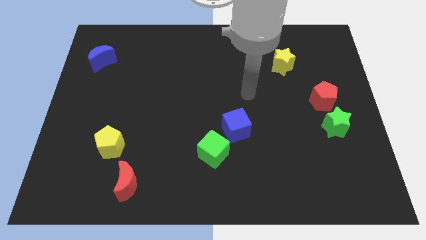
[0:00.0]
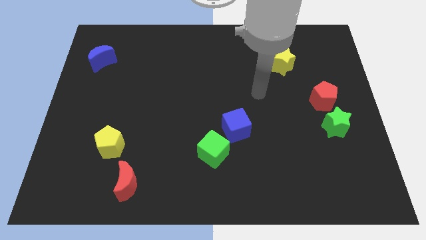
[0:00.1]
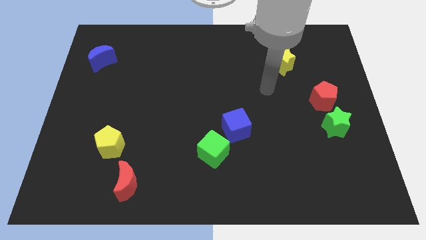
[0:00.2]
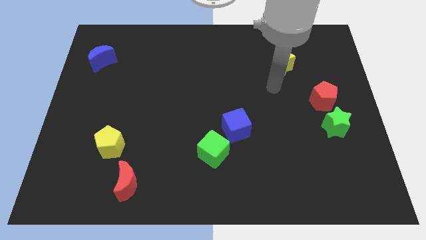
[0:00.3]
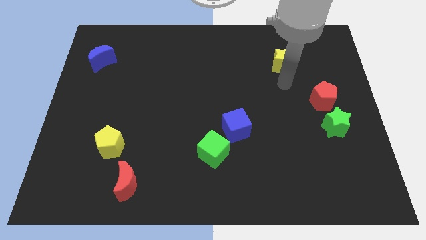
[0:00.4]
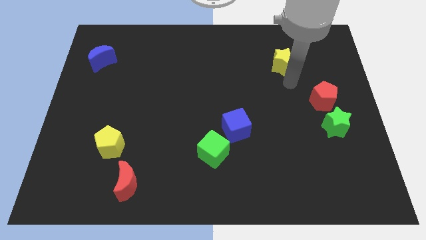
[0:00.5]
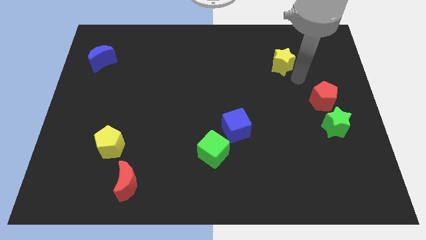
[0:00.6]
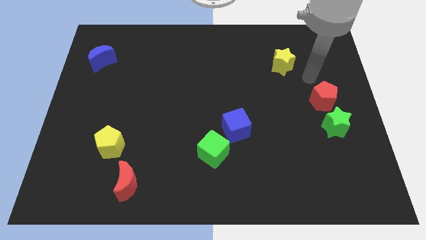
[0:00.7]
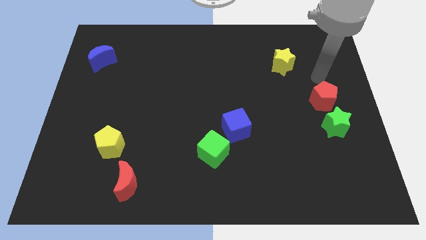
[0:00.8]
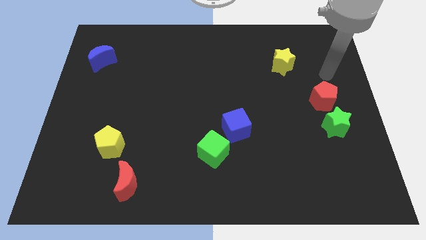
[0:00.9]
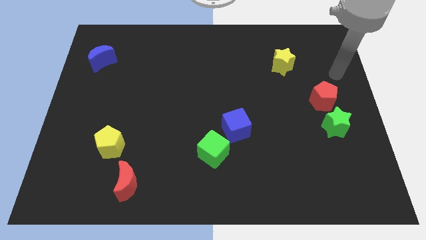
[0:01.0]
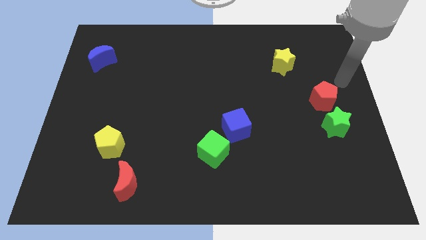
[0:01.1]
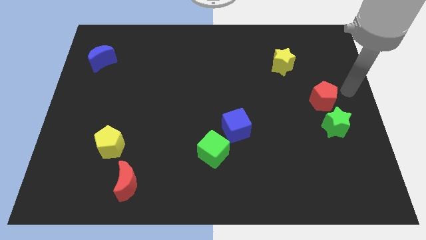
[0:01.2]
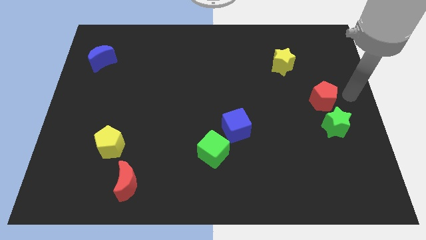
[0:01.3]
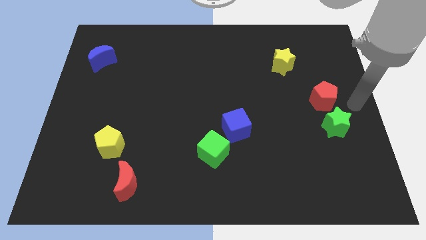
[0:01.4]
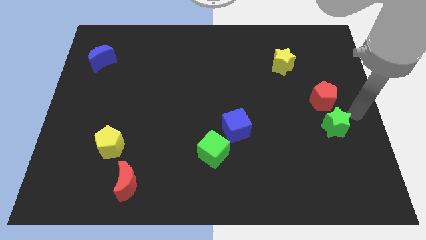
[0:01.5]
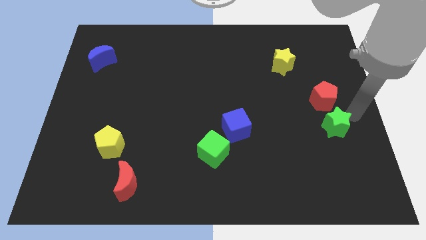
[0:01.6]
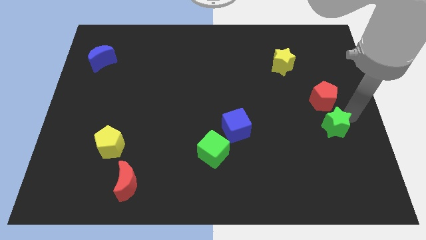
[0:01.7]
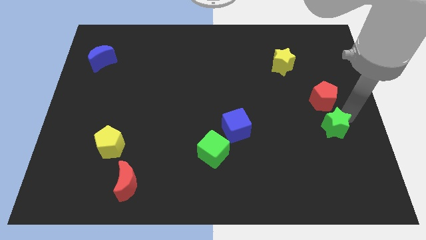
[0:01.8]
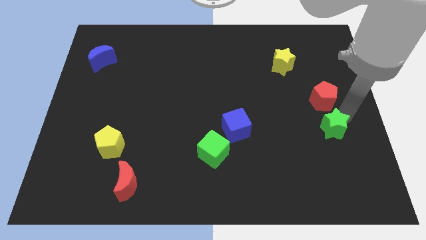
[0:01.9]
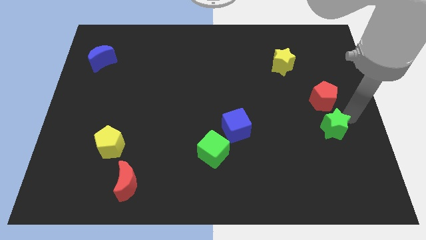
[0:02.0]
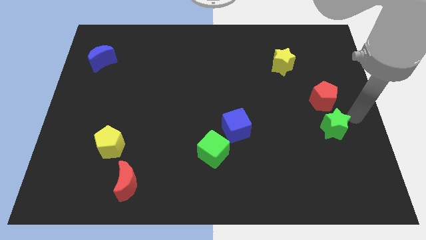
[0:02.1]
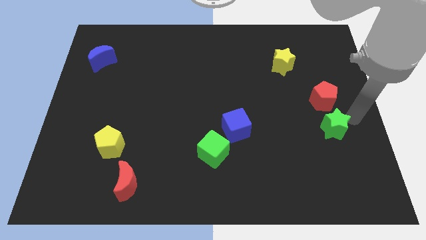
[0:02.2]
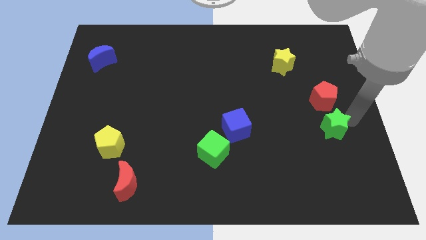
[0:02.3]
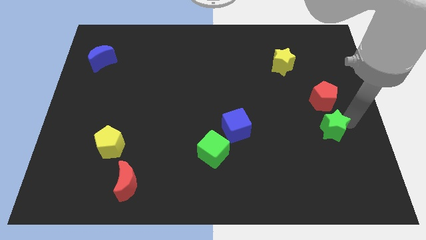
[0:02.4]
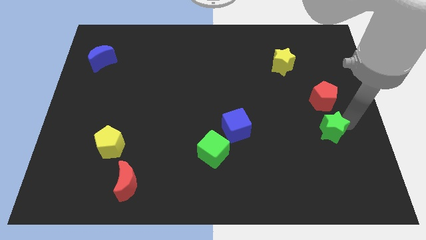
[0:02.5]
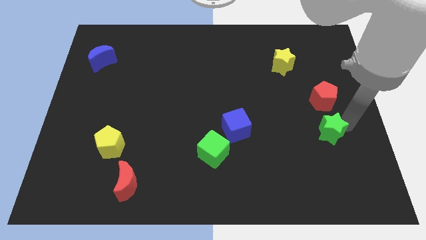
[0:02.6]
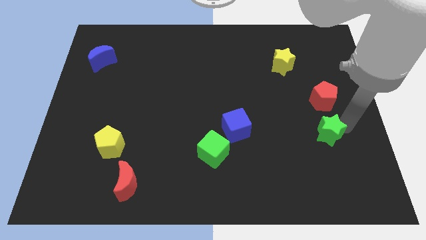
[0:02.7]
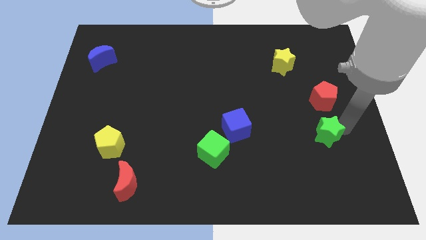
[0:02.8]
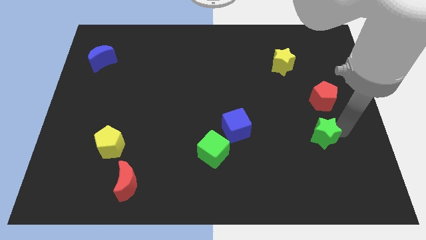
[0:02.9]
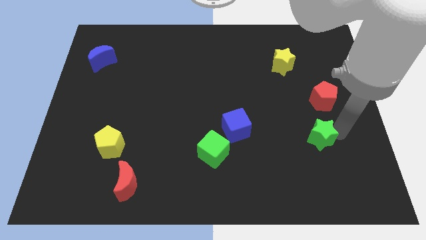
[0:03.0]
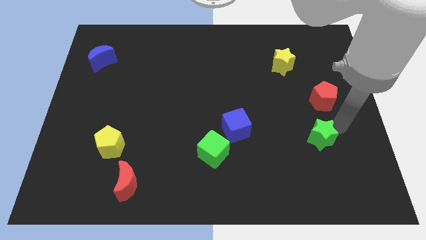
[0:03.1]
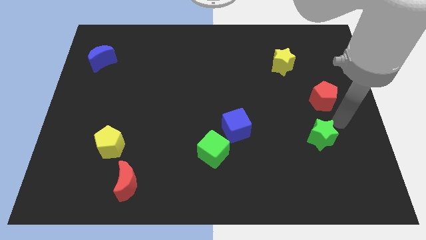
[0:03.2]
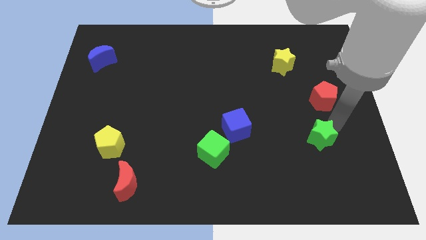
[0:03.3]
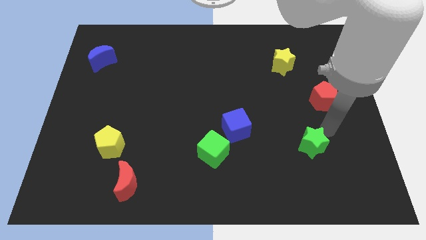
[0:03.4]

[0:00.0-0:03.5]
push the green star down and then to the left slightly

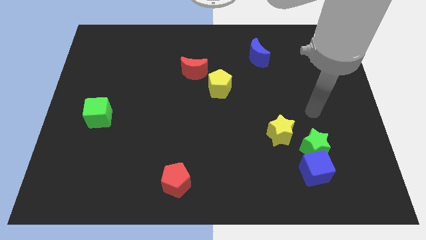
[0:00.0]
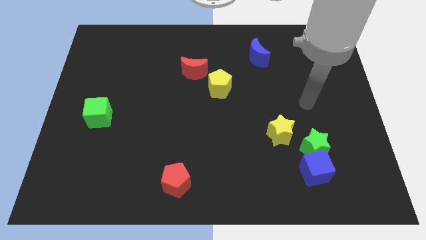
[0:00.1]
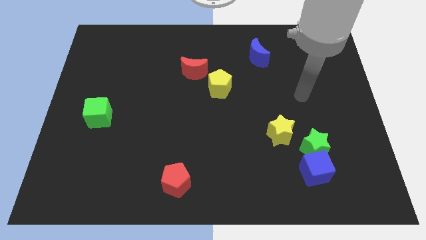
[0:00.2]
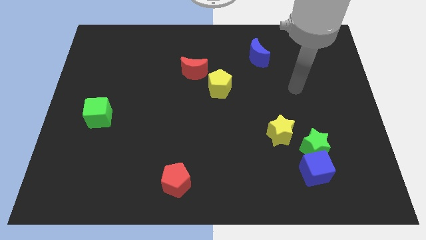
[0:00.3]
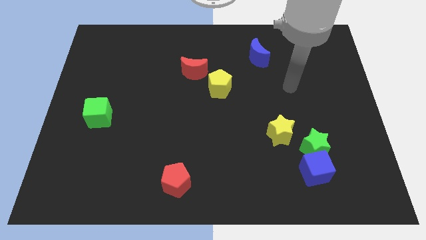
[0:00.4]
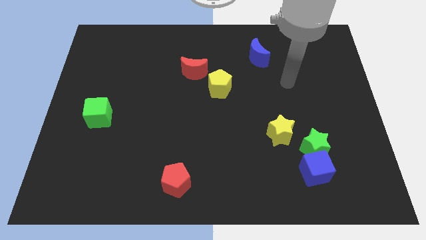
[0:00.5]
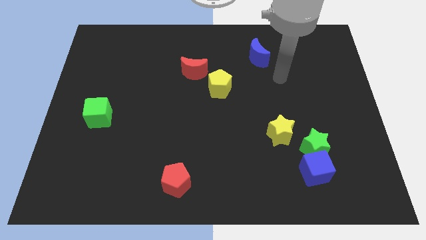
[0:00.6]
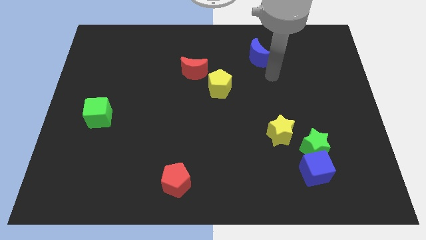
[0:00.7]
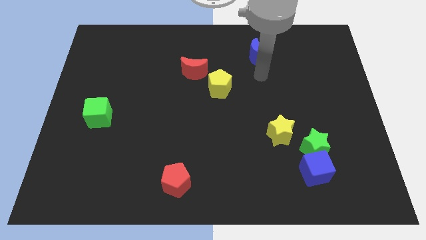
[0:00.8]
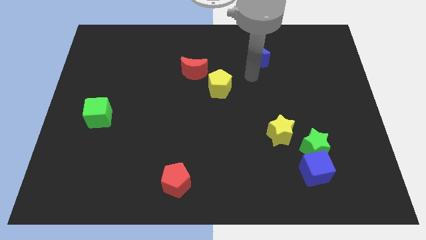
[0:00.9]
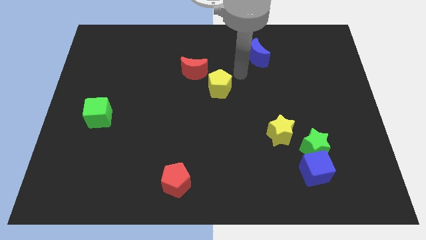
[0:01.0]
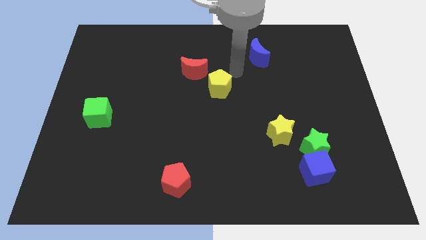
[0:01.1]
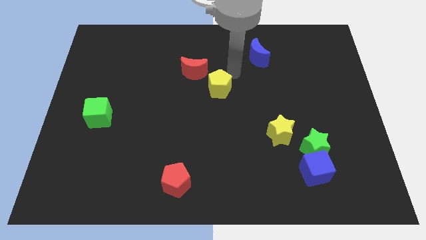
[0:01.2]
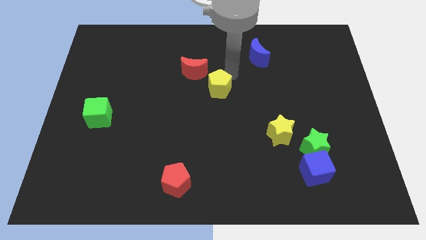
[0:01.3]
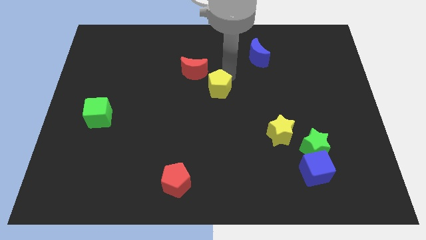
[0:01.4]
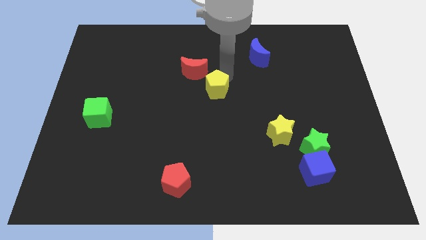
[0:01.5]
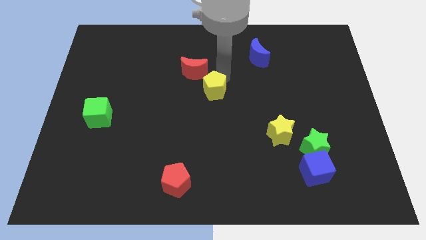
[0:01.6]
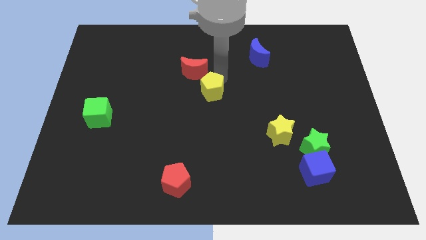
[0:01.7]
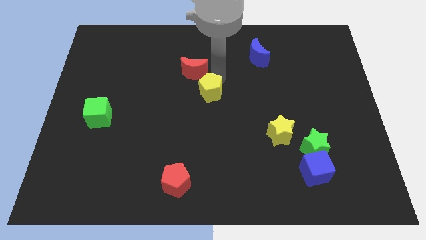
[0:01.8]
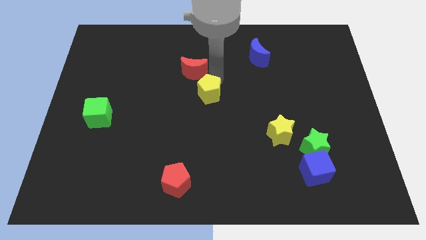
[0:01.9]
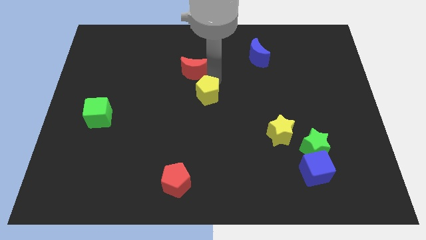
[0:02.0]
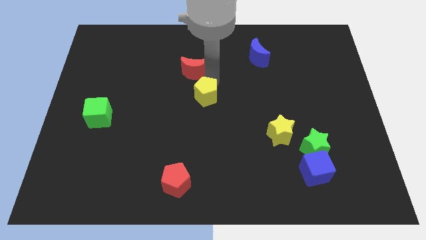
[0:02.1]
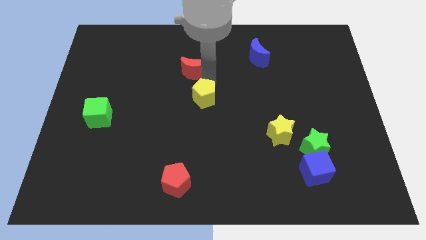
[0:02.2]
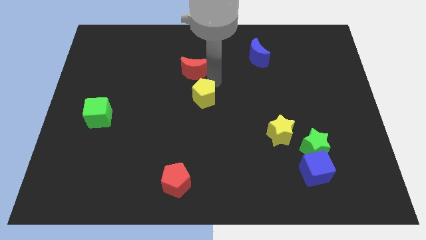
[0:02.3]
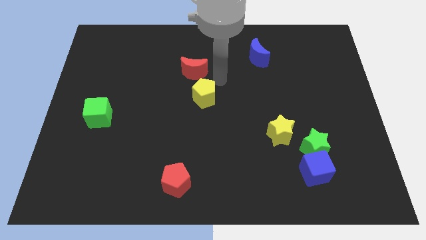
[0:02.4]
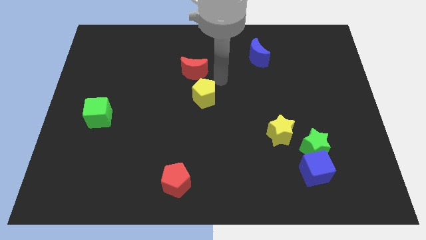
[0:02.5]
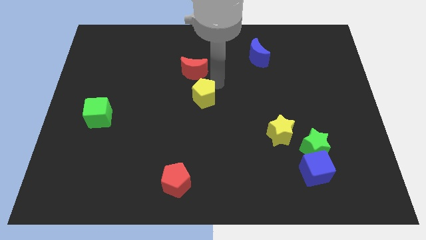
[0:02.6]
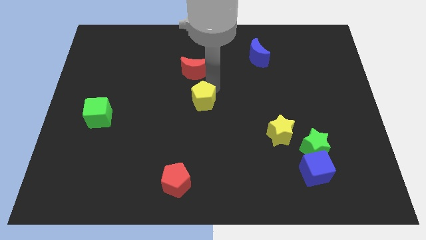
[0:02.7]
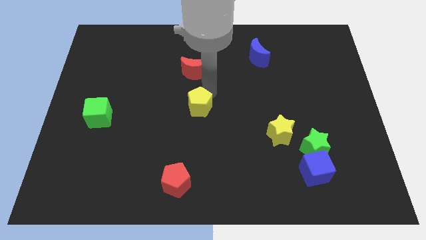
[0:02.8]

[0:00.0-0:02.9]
slightly push the yellow pentagon downwards and then left

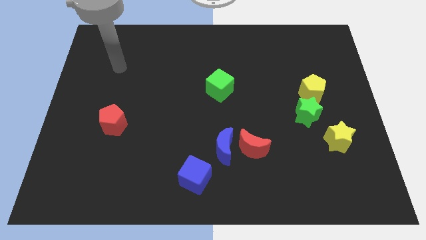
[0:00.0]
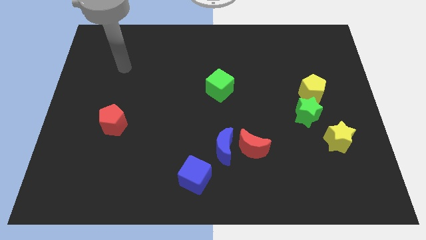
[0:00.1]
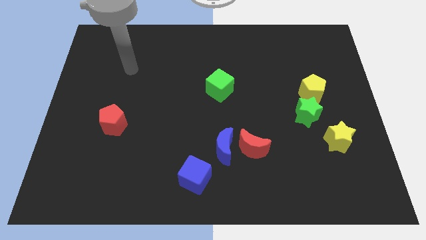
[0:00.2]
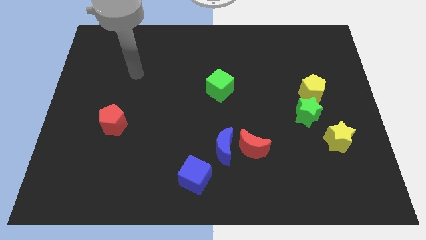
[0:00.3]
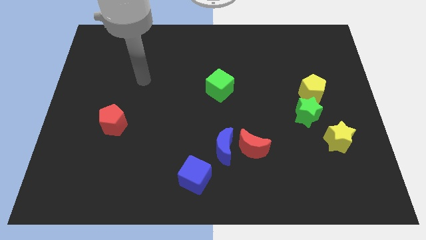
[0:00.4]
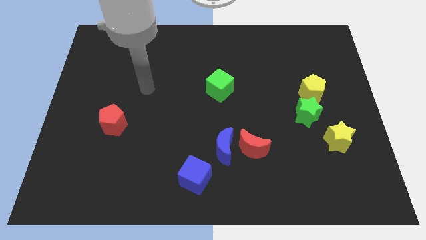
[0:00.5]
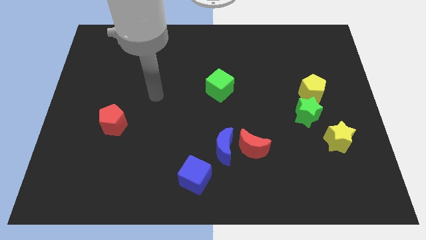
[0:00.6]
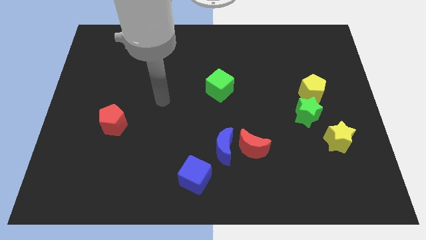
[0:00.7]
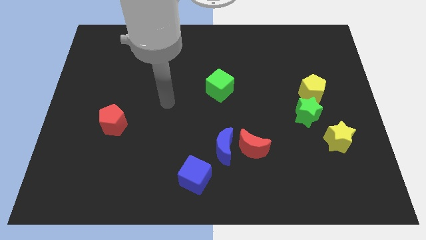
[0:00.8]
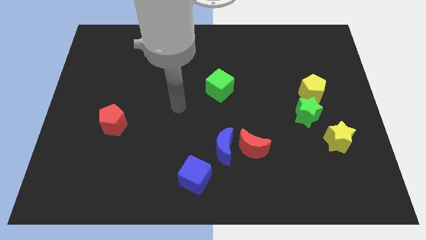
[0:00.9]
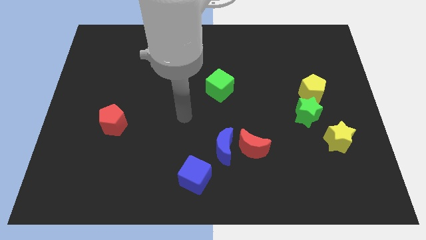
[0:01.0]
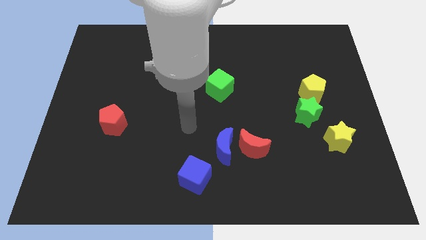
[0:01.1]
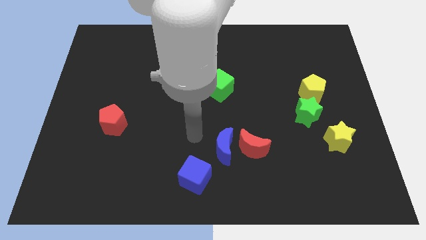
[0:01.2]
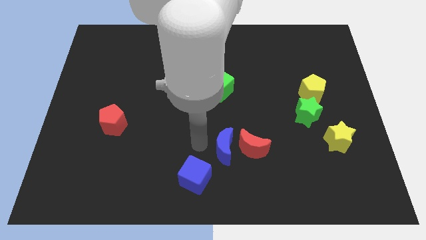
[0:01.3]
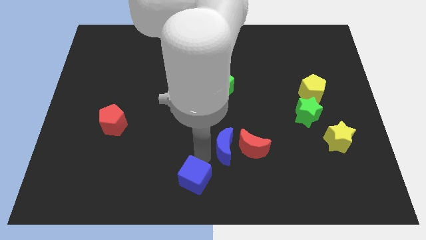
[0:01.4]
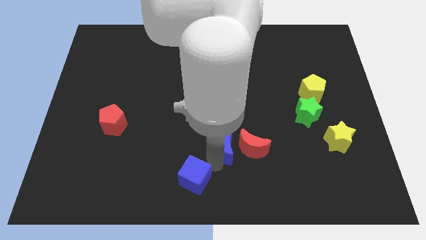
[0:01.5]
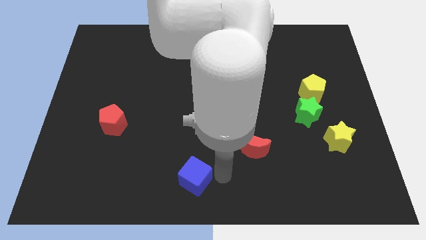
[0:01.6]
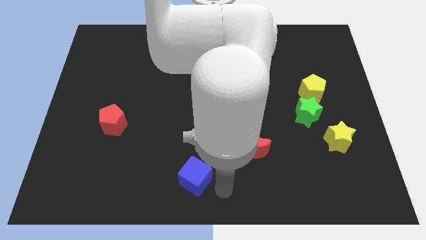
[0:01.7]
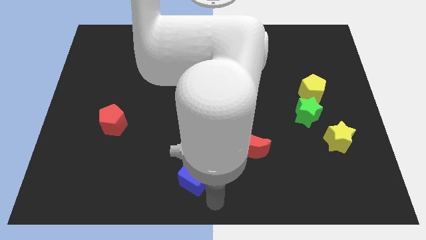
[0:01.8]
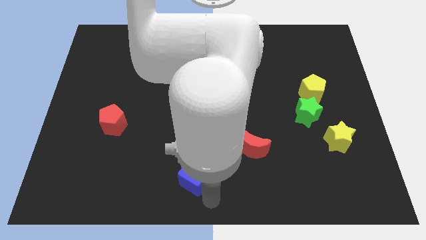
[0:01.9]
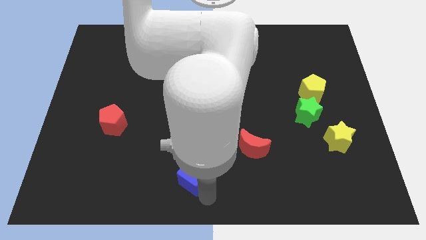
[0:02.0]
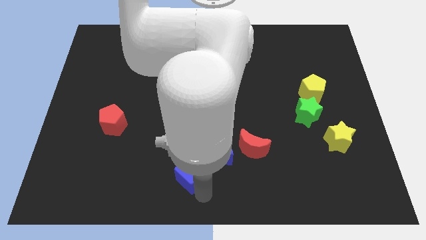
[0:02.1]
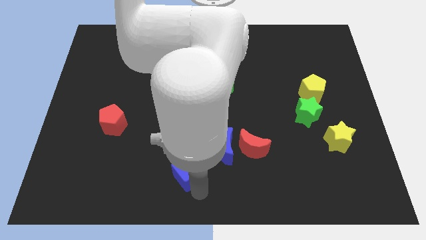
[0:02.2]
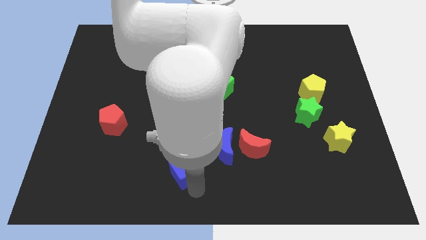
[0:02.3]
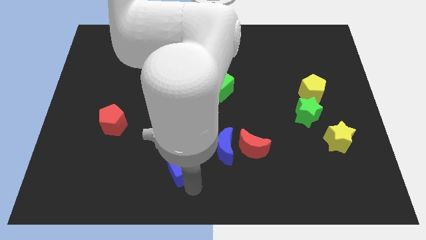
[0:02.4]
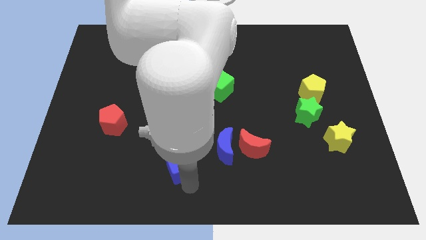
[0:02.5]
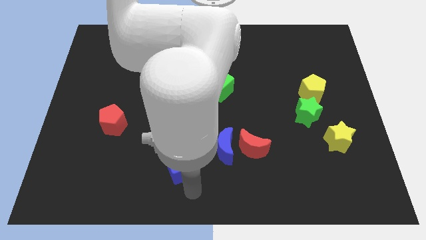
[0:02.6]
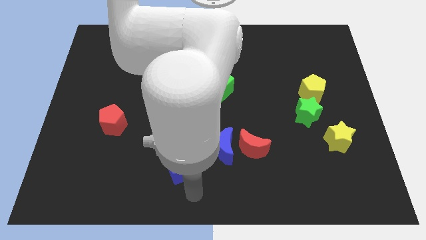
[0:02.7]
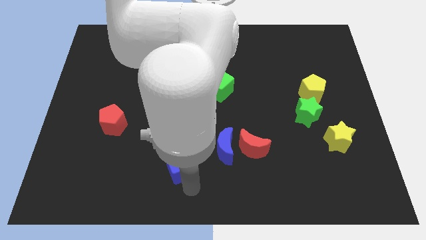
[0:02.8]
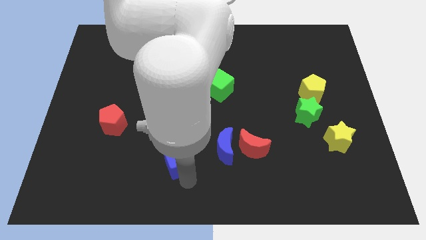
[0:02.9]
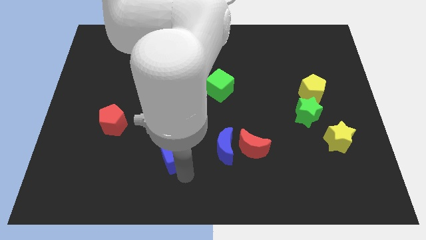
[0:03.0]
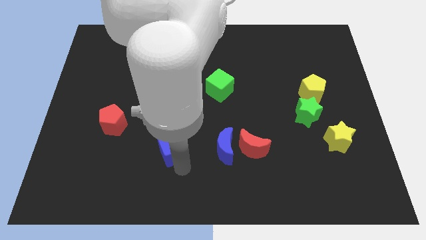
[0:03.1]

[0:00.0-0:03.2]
move the blue cube diagonally upwards and left somewhat
